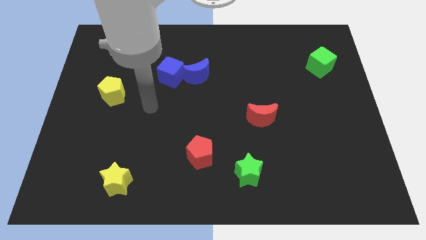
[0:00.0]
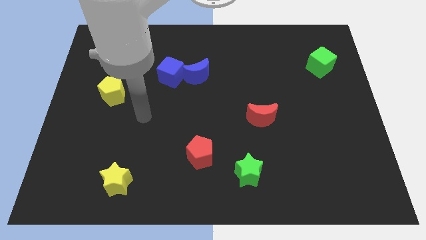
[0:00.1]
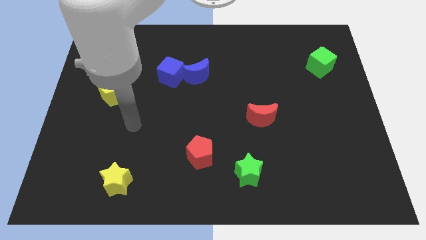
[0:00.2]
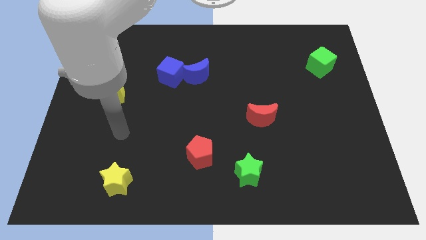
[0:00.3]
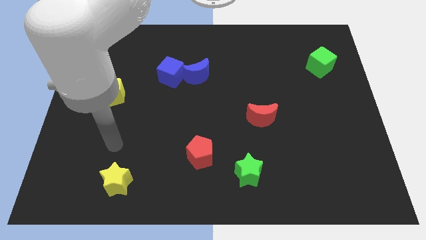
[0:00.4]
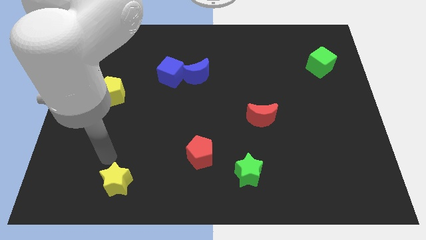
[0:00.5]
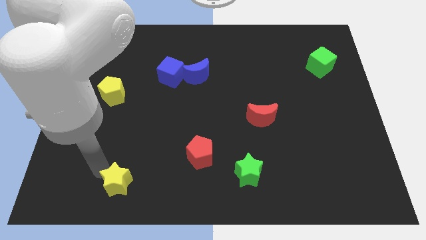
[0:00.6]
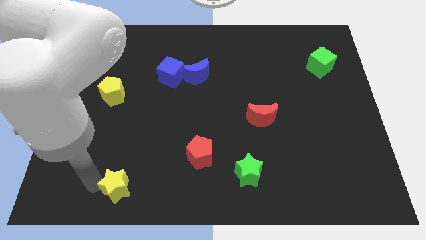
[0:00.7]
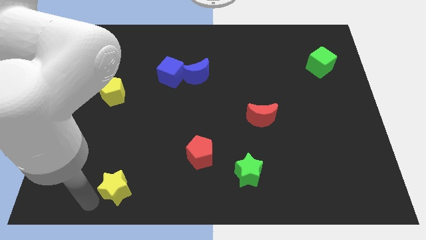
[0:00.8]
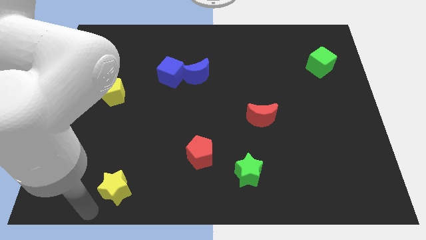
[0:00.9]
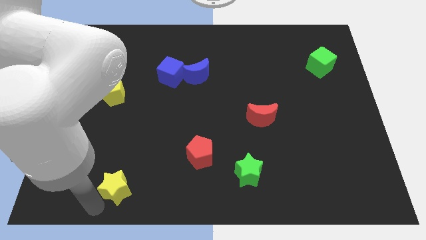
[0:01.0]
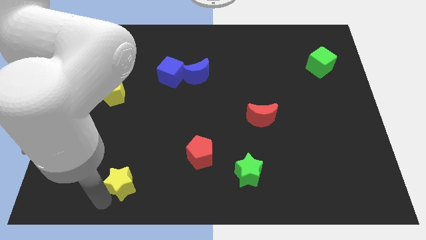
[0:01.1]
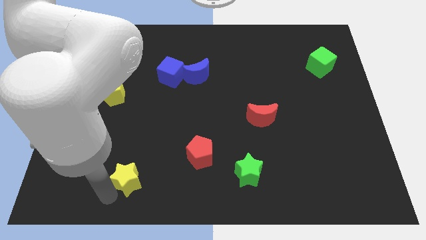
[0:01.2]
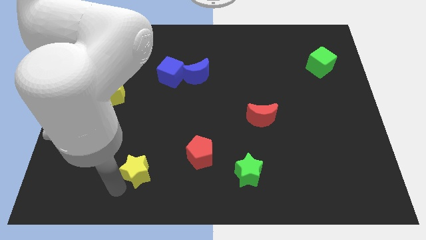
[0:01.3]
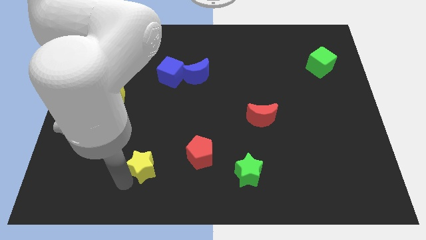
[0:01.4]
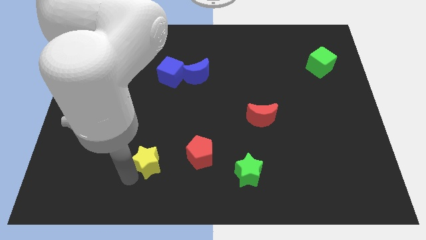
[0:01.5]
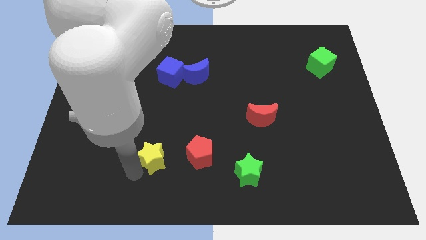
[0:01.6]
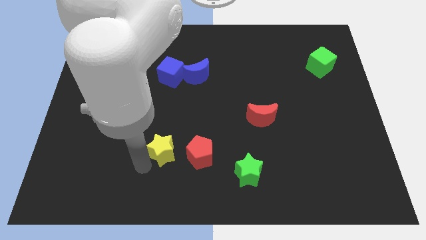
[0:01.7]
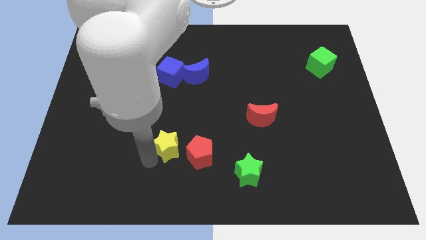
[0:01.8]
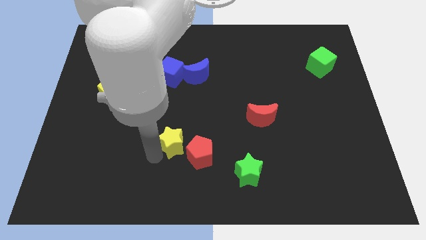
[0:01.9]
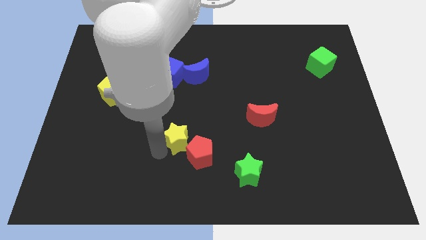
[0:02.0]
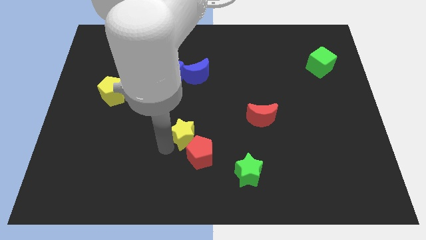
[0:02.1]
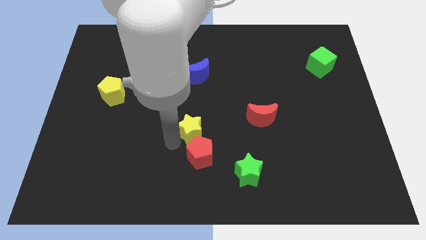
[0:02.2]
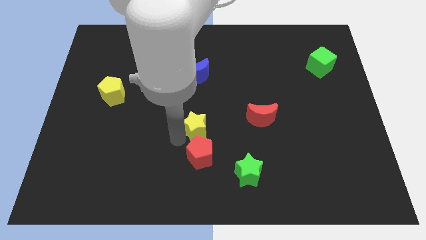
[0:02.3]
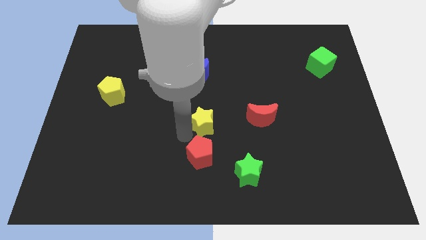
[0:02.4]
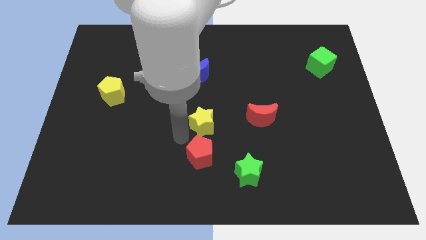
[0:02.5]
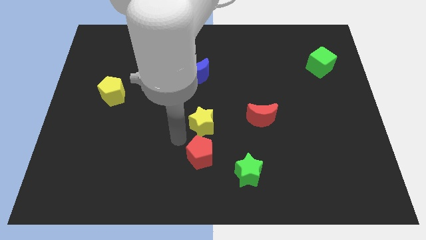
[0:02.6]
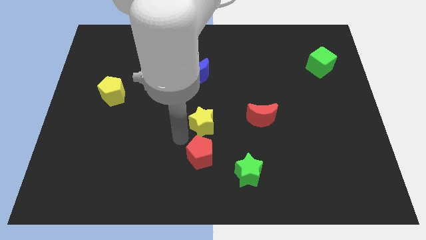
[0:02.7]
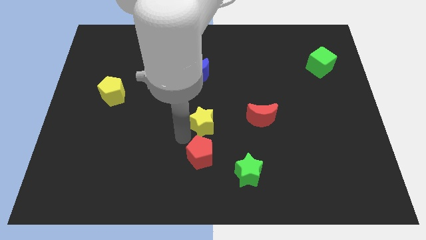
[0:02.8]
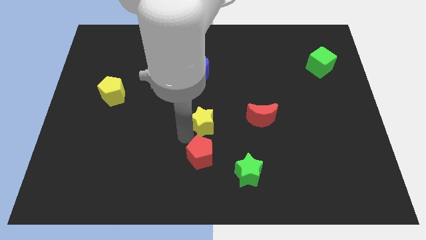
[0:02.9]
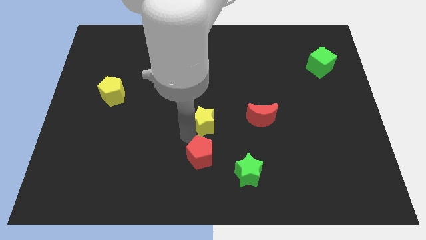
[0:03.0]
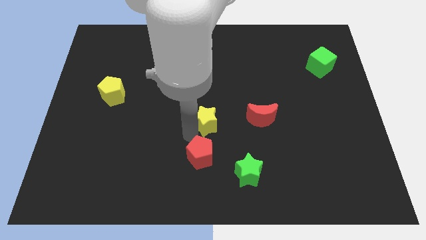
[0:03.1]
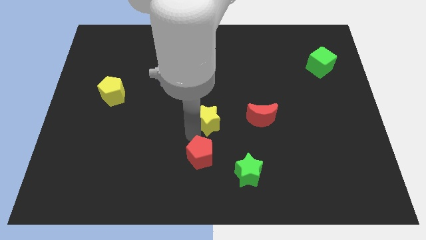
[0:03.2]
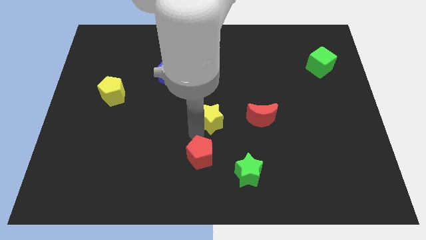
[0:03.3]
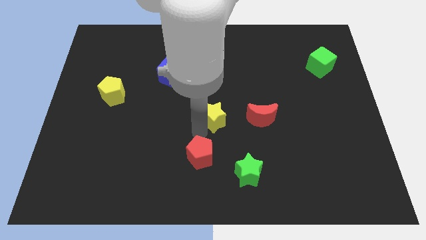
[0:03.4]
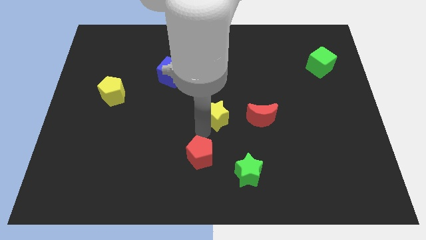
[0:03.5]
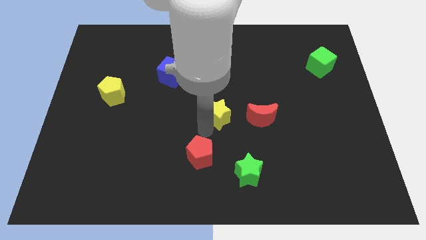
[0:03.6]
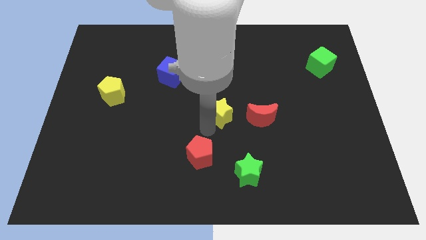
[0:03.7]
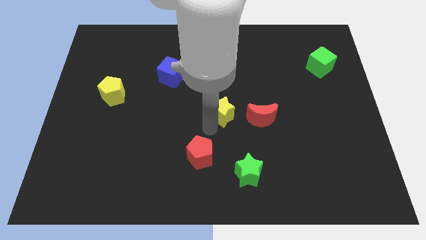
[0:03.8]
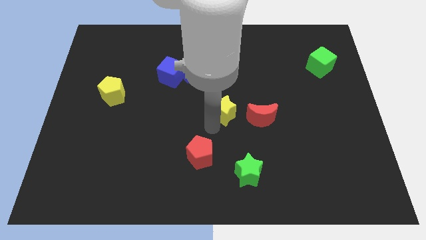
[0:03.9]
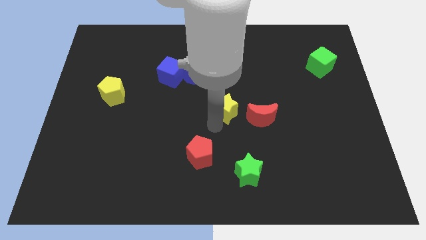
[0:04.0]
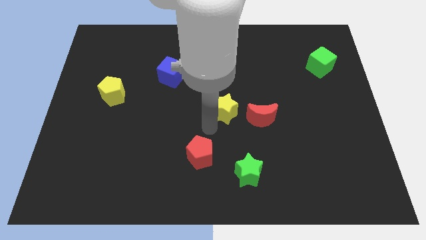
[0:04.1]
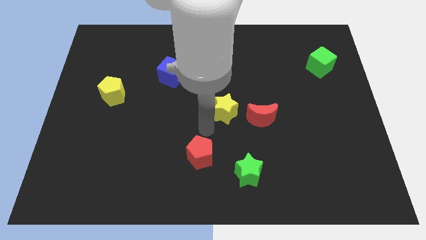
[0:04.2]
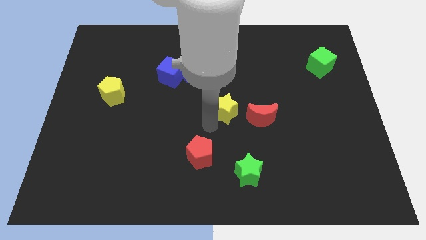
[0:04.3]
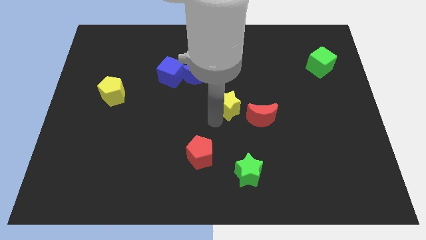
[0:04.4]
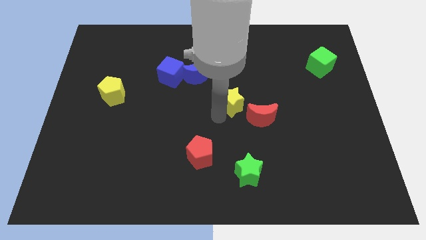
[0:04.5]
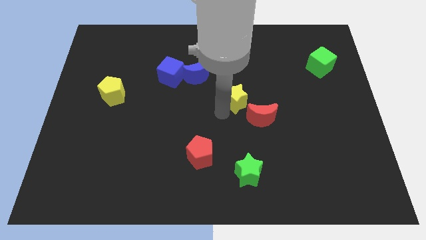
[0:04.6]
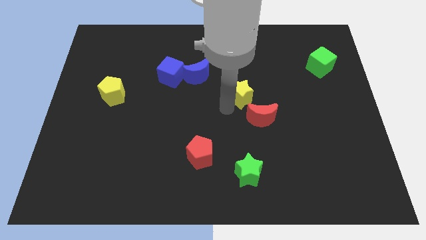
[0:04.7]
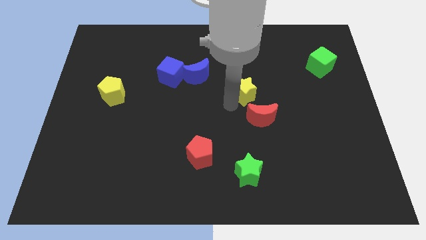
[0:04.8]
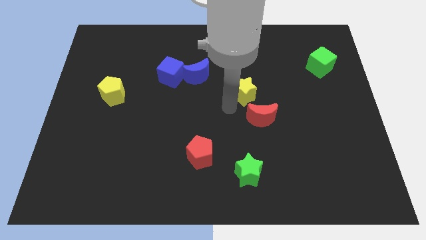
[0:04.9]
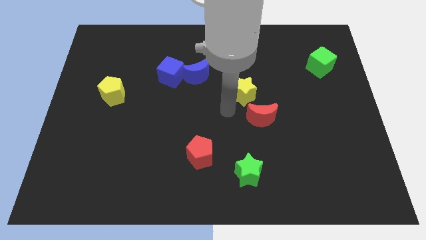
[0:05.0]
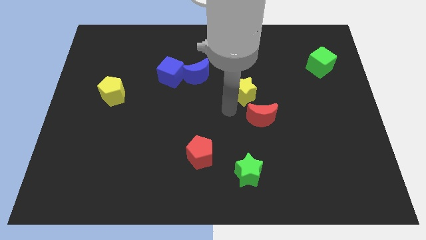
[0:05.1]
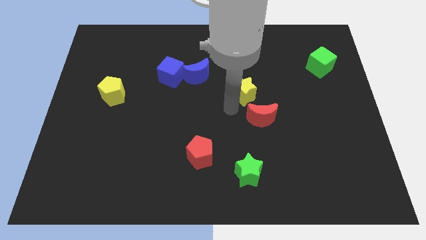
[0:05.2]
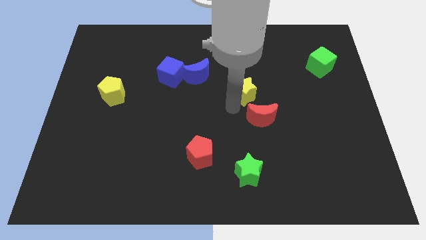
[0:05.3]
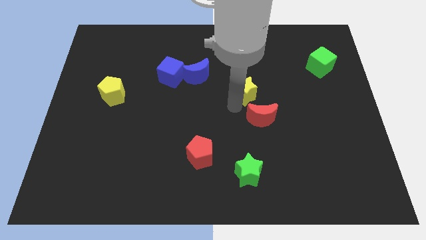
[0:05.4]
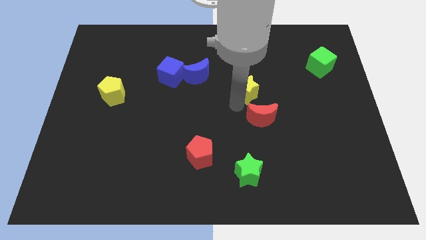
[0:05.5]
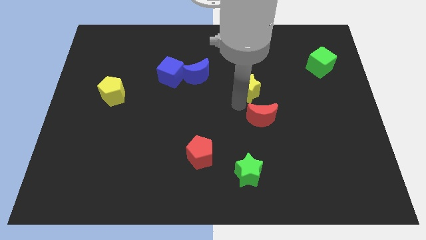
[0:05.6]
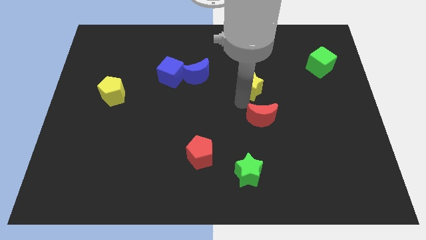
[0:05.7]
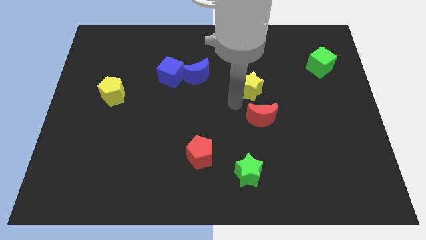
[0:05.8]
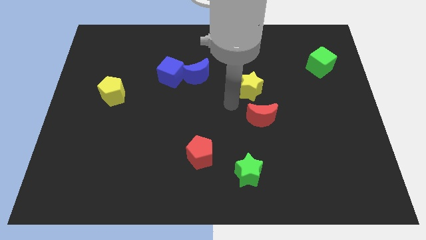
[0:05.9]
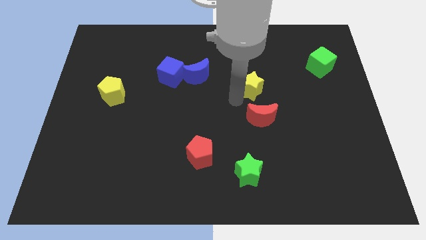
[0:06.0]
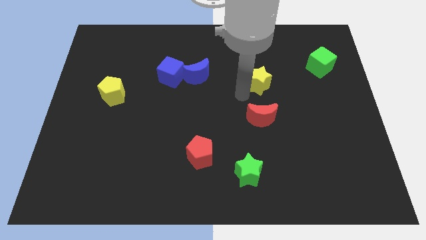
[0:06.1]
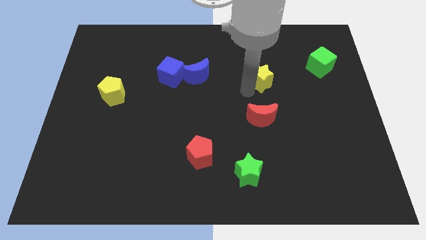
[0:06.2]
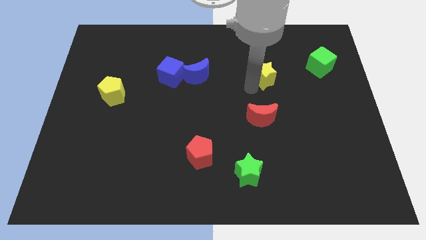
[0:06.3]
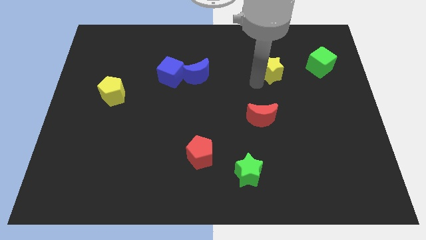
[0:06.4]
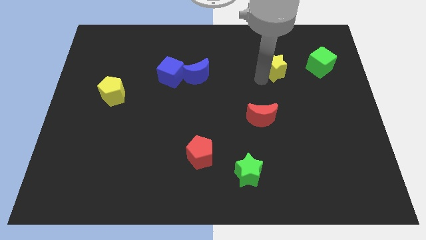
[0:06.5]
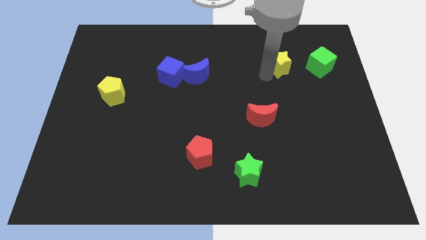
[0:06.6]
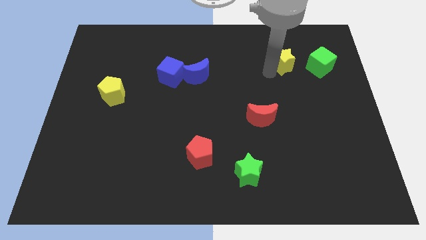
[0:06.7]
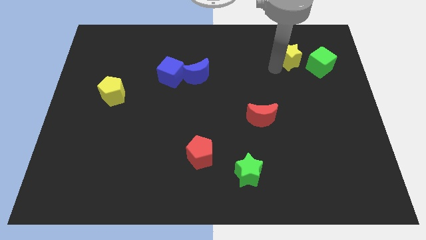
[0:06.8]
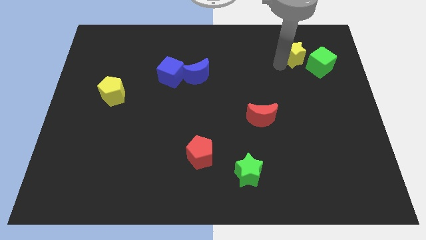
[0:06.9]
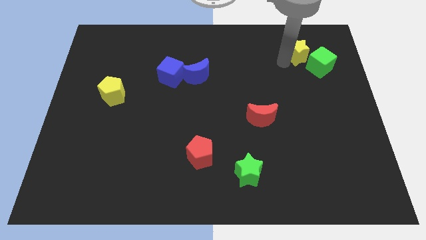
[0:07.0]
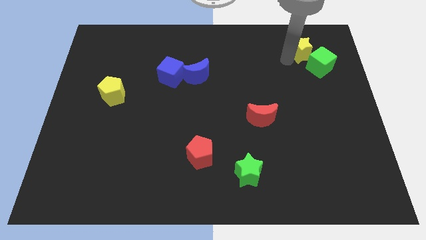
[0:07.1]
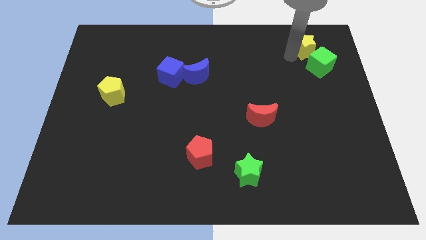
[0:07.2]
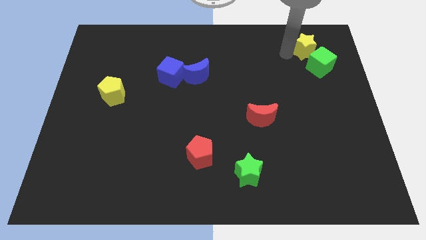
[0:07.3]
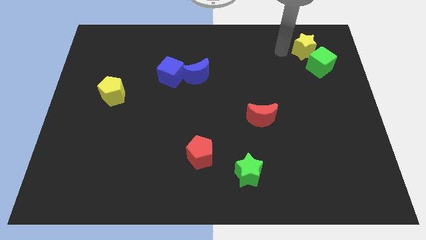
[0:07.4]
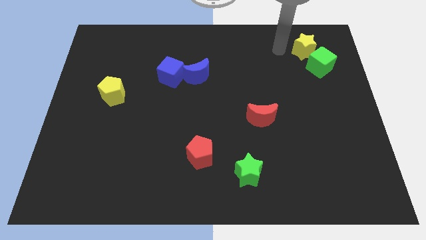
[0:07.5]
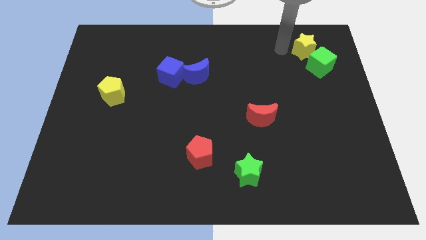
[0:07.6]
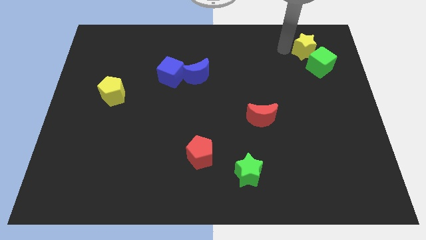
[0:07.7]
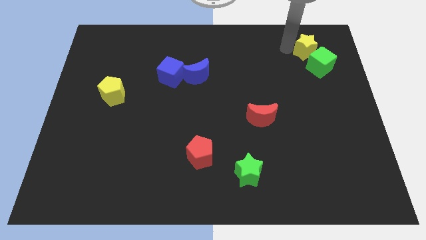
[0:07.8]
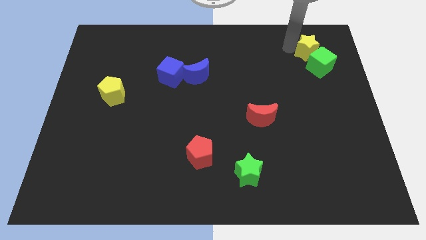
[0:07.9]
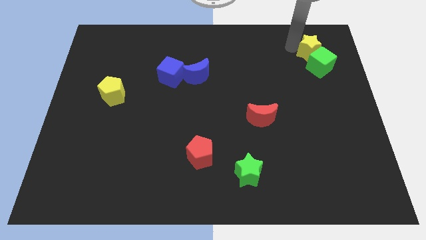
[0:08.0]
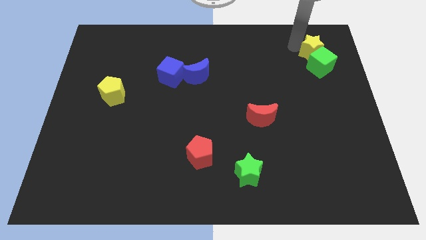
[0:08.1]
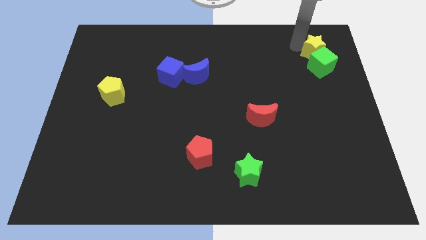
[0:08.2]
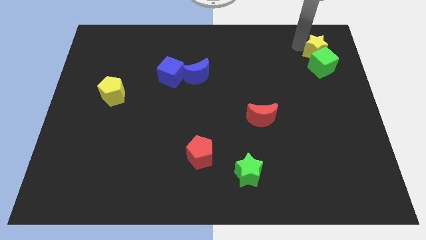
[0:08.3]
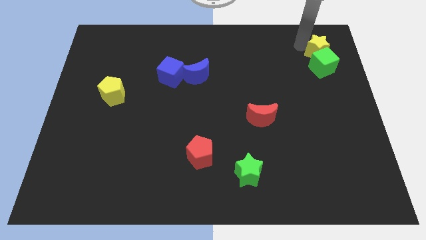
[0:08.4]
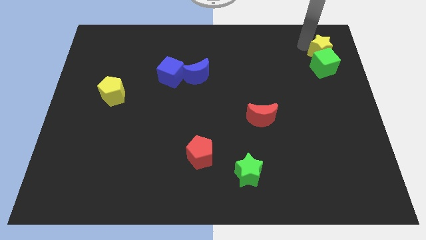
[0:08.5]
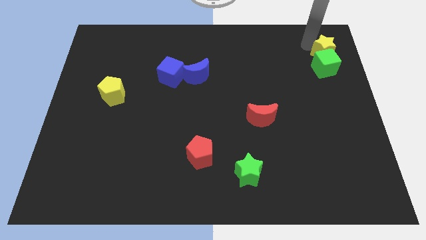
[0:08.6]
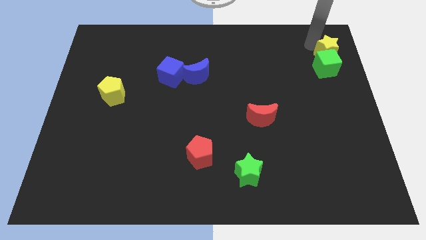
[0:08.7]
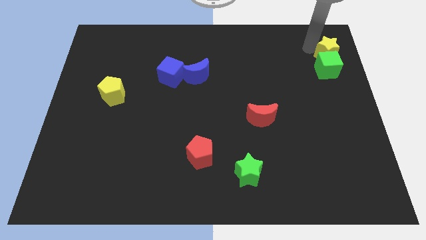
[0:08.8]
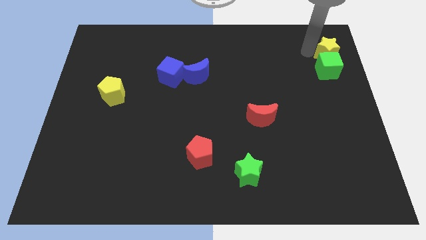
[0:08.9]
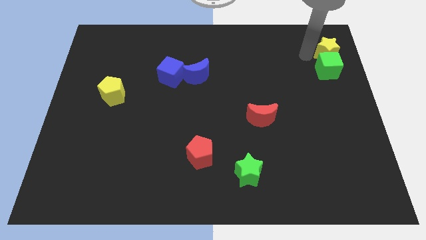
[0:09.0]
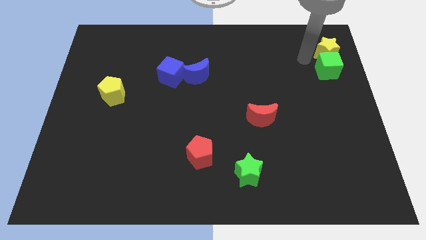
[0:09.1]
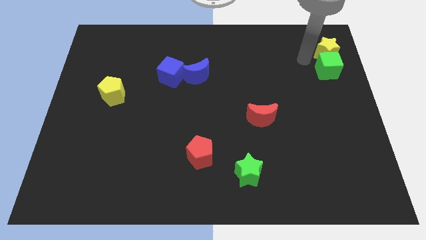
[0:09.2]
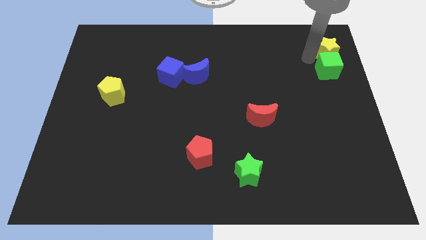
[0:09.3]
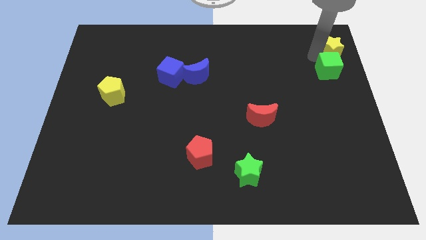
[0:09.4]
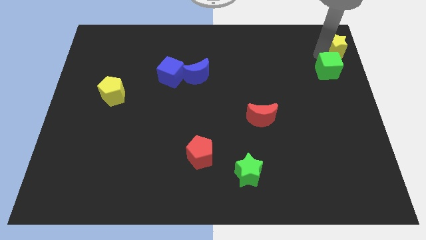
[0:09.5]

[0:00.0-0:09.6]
slide the yellow star to the top right corner
